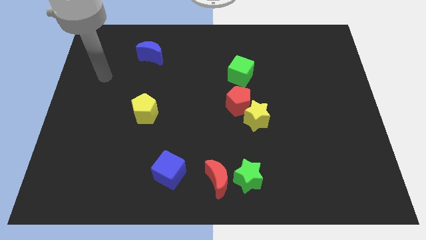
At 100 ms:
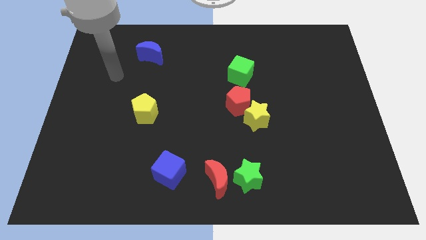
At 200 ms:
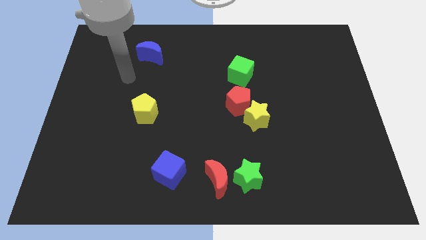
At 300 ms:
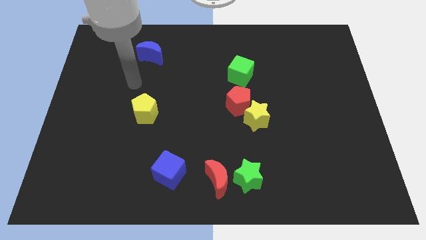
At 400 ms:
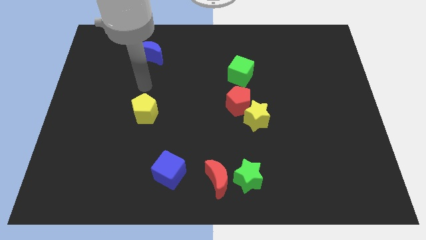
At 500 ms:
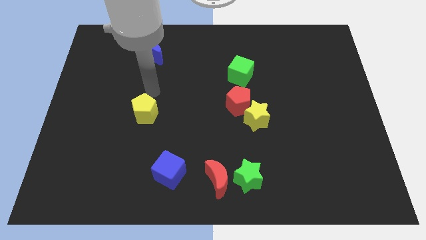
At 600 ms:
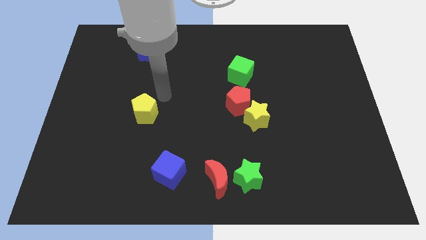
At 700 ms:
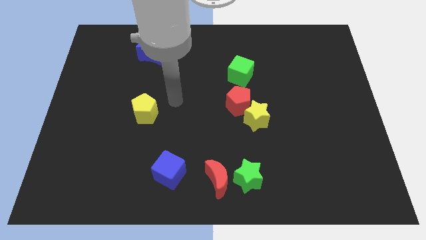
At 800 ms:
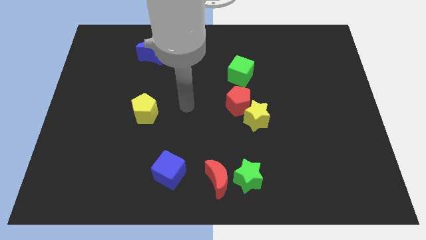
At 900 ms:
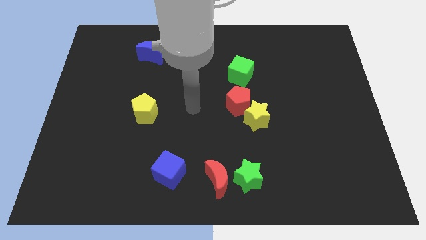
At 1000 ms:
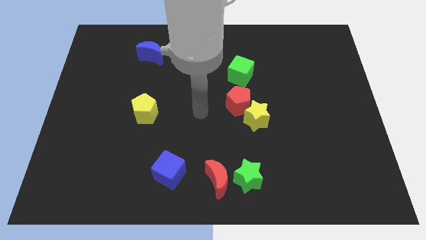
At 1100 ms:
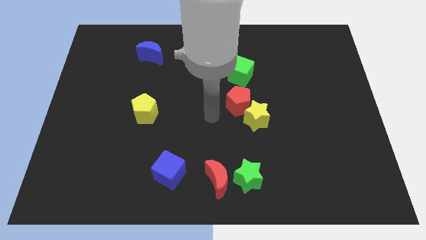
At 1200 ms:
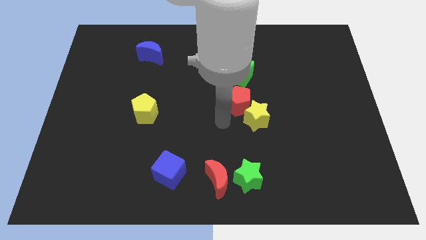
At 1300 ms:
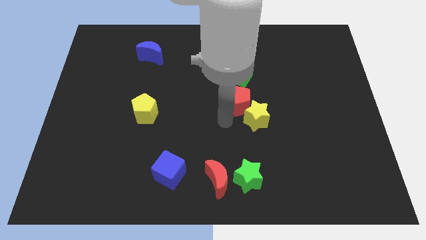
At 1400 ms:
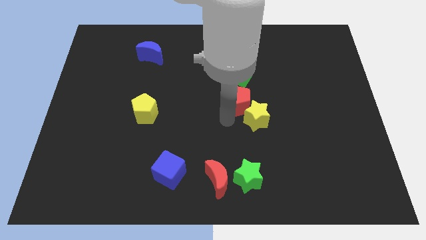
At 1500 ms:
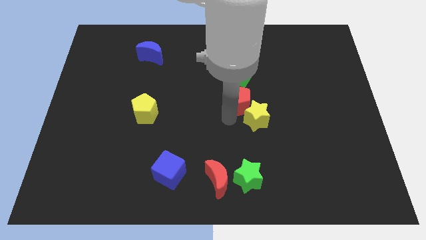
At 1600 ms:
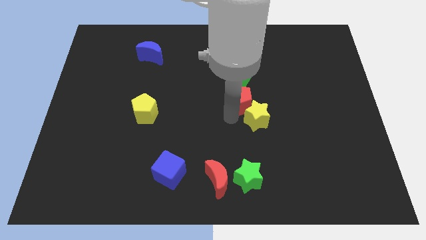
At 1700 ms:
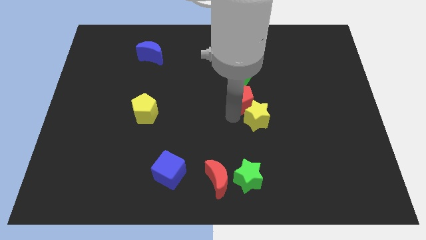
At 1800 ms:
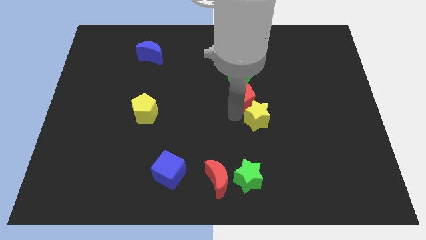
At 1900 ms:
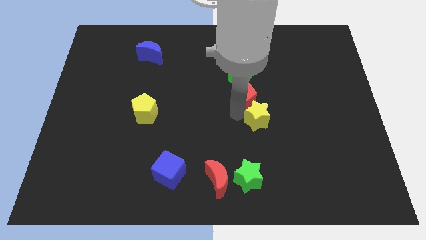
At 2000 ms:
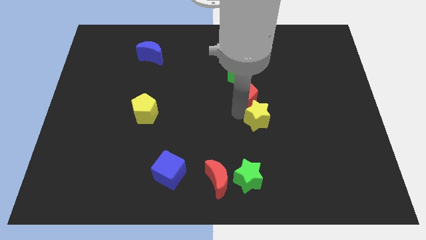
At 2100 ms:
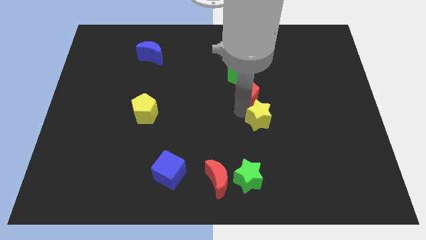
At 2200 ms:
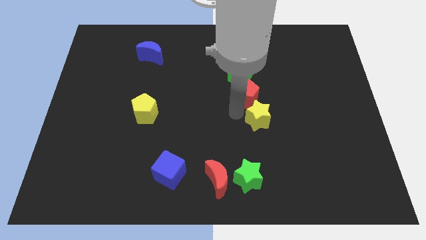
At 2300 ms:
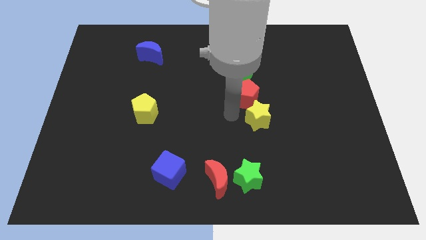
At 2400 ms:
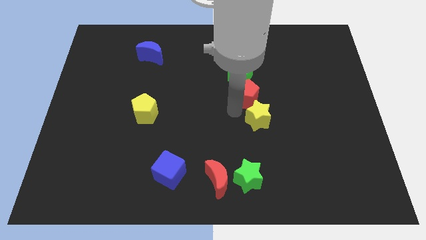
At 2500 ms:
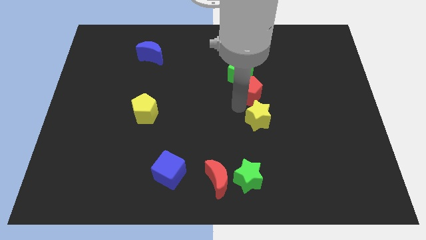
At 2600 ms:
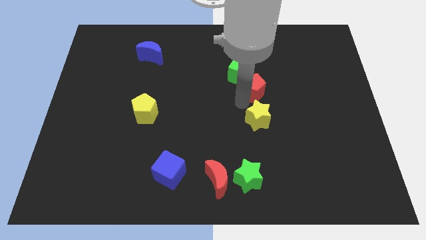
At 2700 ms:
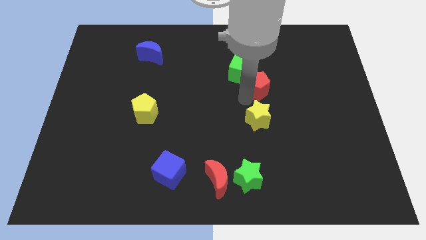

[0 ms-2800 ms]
slightly push the red pentagon up and then right

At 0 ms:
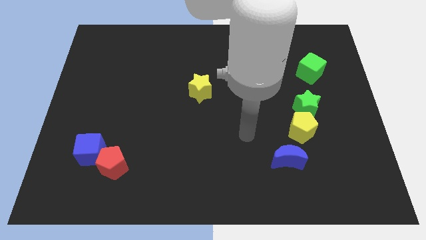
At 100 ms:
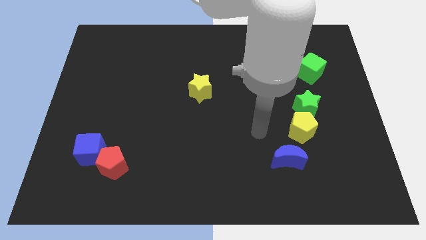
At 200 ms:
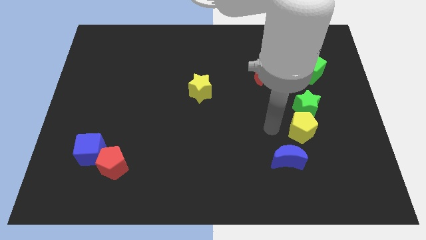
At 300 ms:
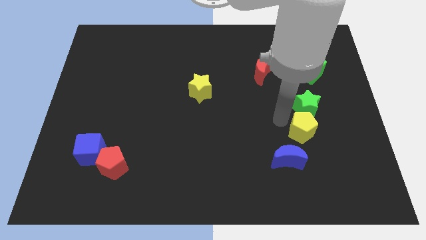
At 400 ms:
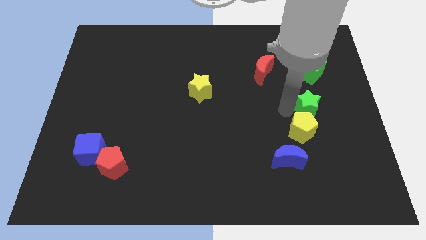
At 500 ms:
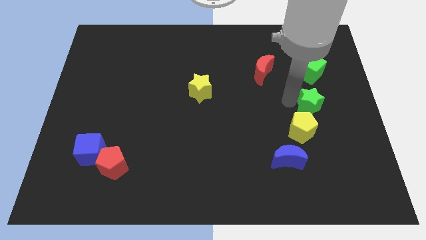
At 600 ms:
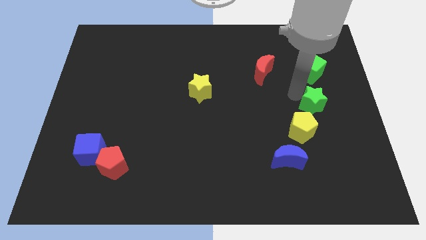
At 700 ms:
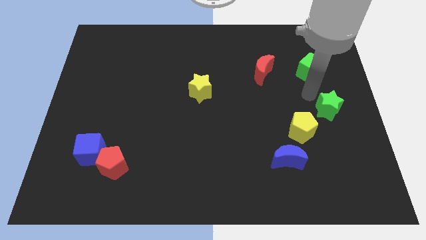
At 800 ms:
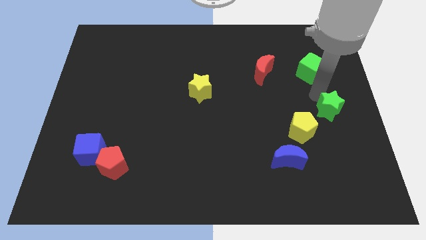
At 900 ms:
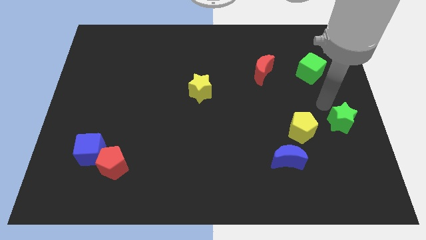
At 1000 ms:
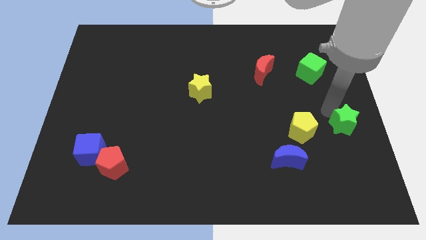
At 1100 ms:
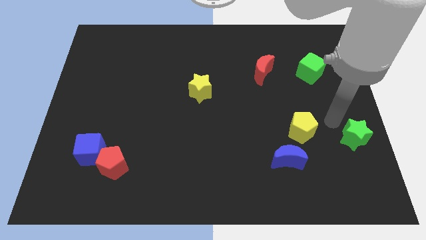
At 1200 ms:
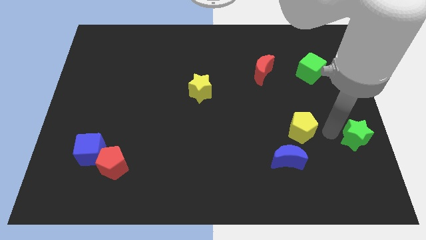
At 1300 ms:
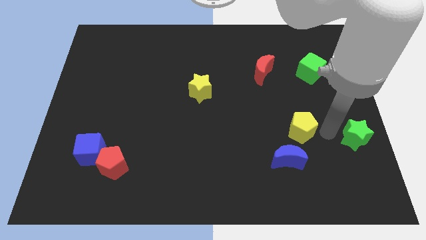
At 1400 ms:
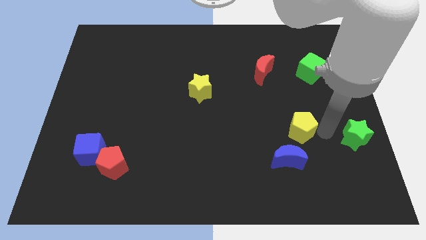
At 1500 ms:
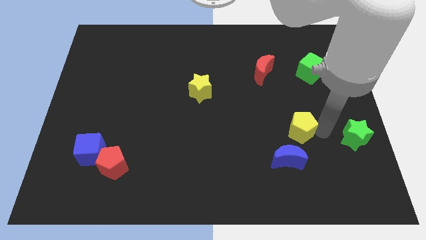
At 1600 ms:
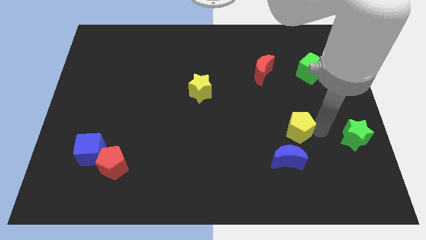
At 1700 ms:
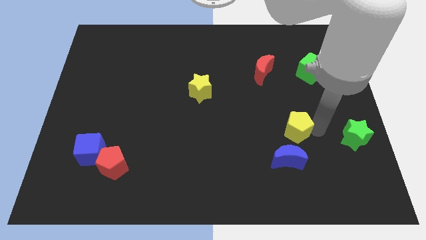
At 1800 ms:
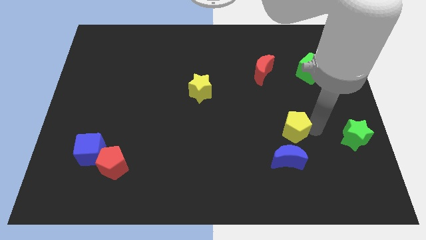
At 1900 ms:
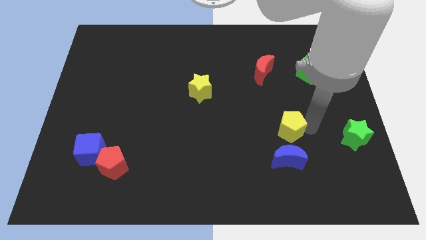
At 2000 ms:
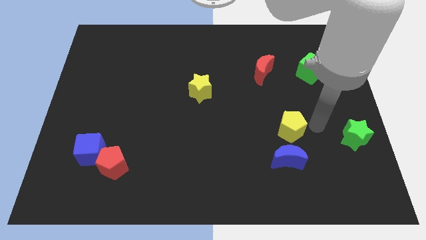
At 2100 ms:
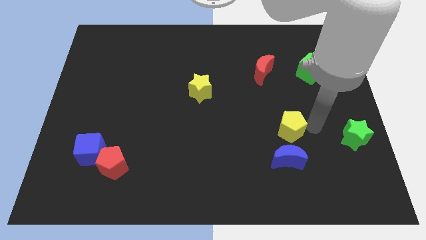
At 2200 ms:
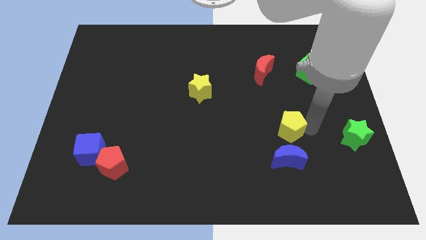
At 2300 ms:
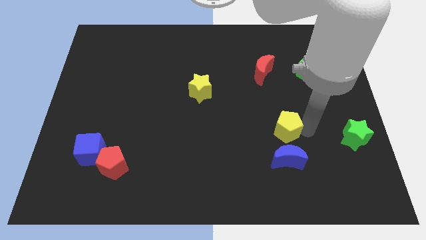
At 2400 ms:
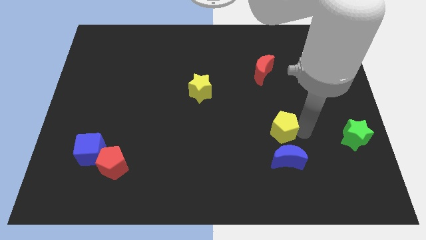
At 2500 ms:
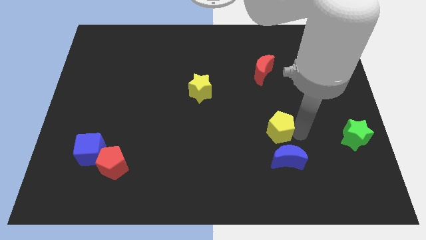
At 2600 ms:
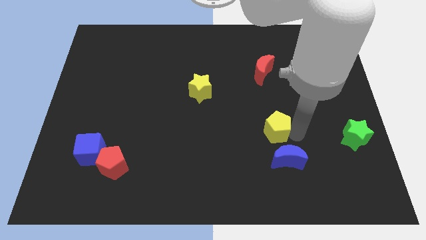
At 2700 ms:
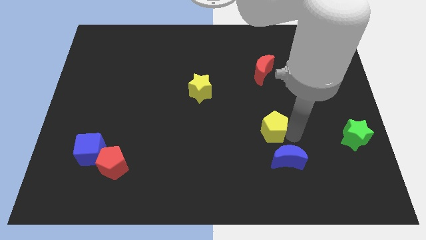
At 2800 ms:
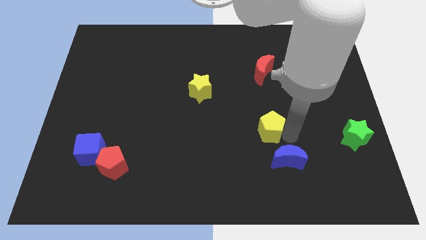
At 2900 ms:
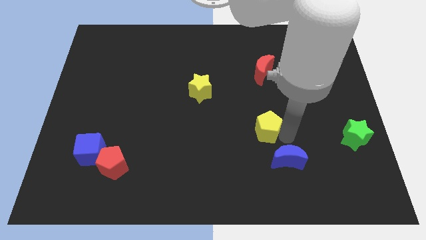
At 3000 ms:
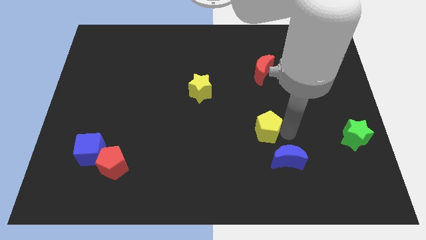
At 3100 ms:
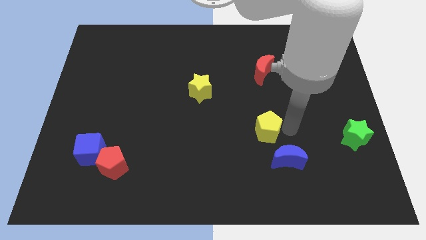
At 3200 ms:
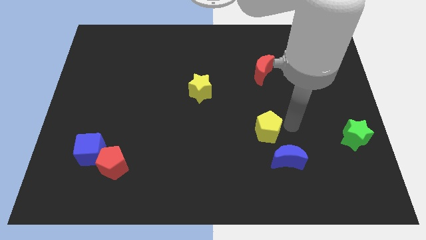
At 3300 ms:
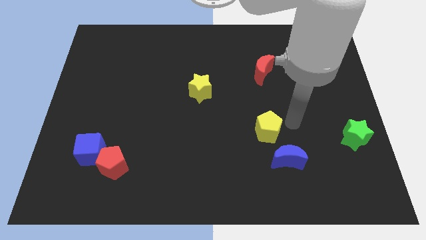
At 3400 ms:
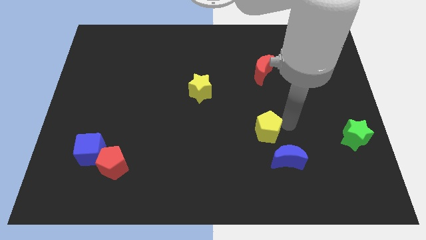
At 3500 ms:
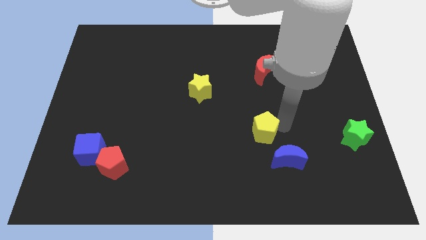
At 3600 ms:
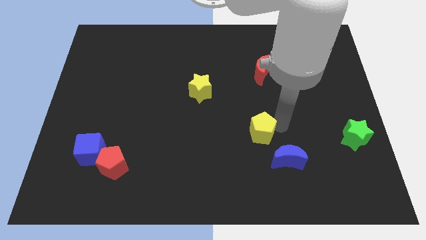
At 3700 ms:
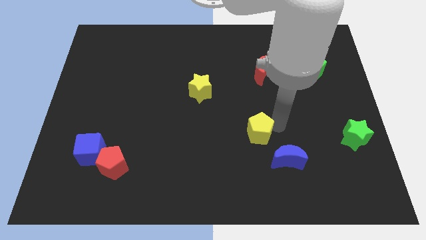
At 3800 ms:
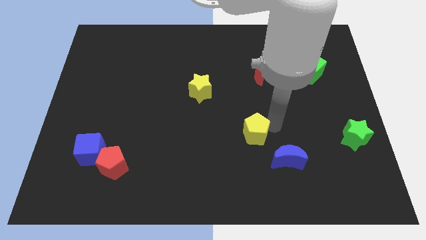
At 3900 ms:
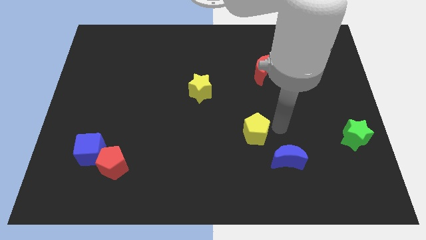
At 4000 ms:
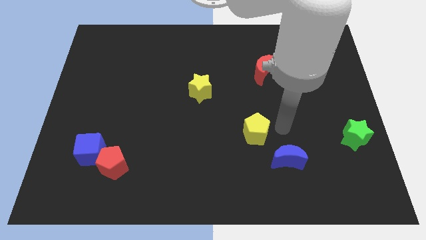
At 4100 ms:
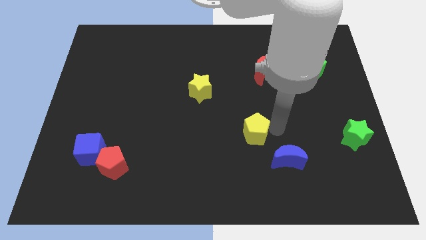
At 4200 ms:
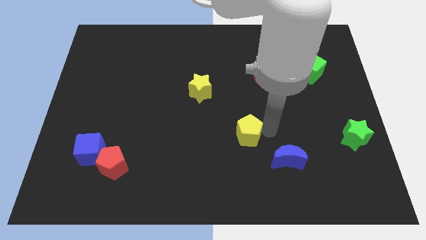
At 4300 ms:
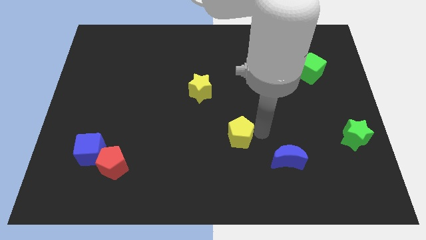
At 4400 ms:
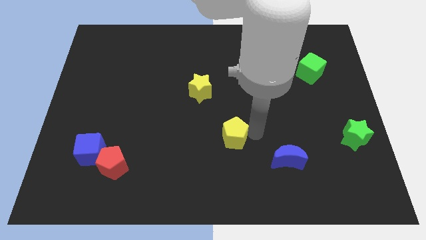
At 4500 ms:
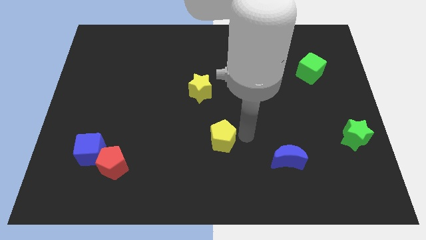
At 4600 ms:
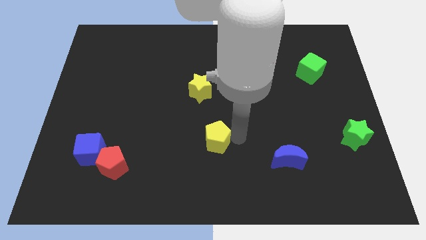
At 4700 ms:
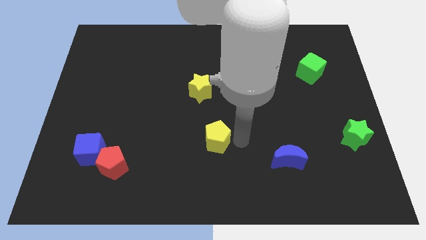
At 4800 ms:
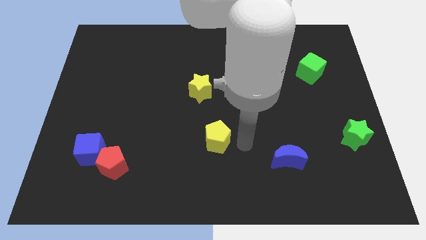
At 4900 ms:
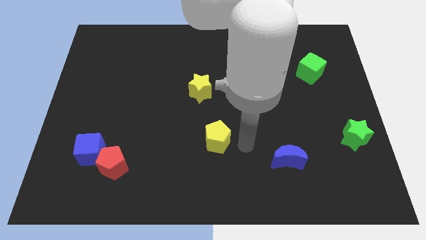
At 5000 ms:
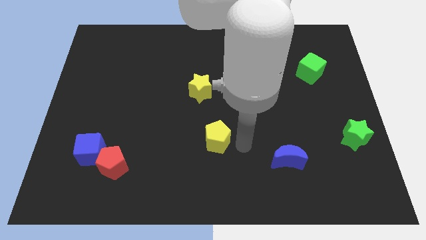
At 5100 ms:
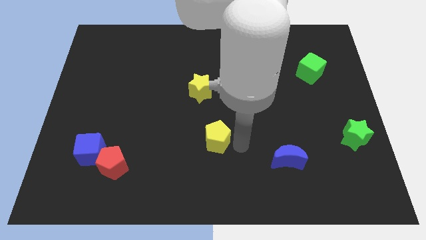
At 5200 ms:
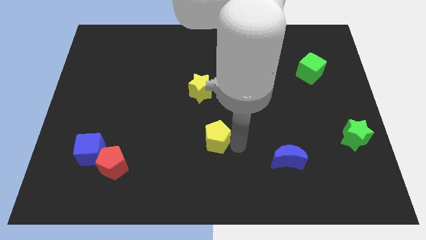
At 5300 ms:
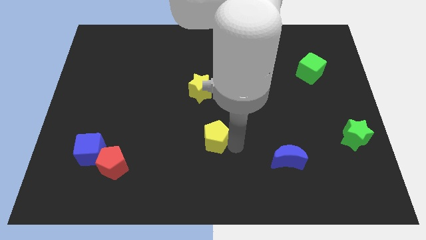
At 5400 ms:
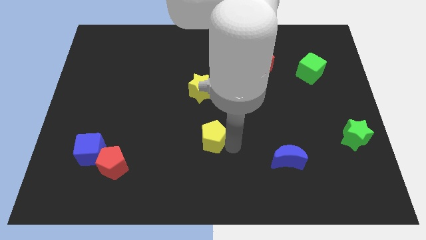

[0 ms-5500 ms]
move the yellow pentagon to the left
